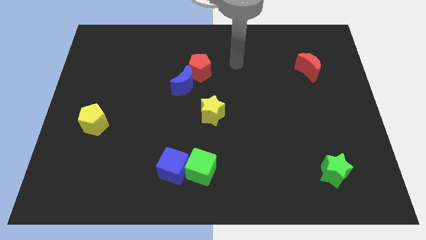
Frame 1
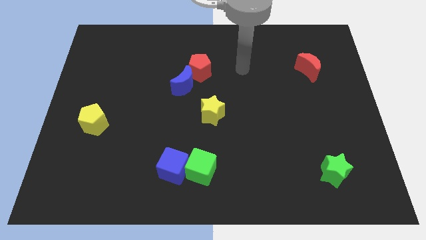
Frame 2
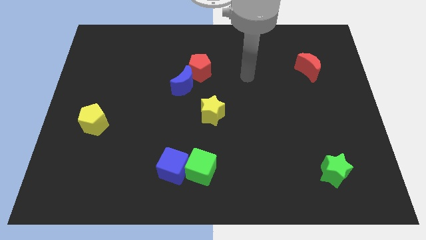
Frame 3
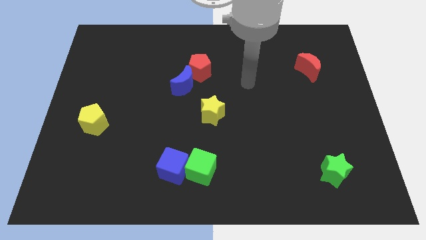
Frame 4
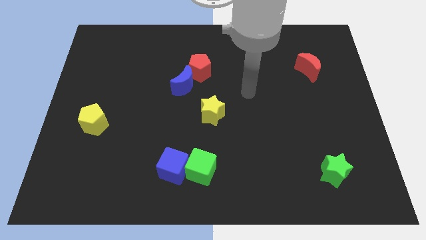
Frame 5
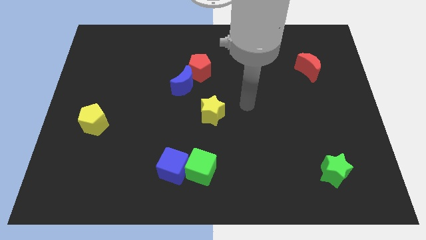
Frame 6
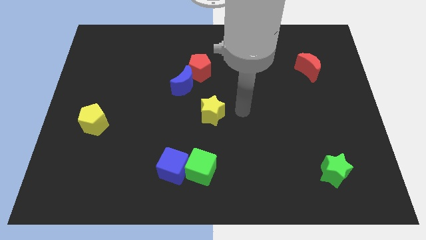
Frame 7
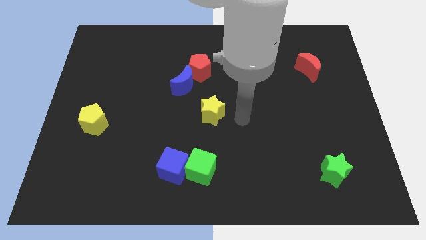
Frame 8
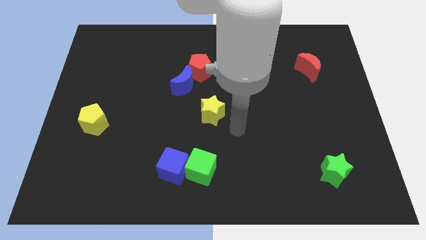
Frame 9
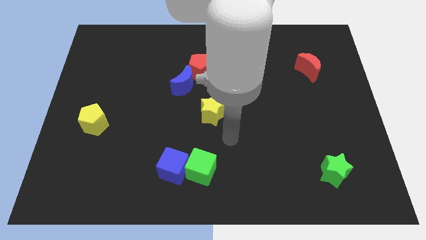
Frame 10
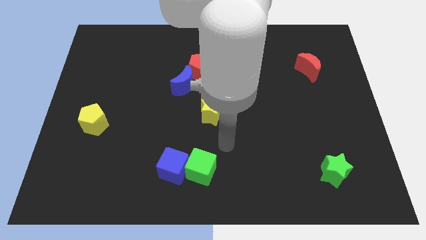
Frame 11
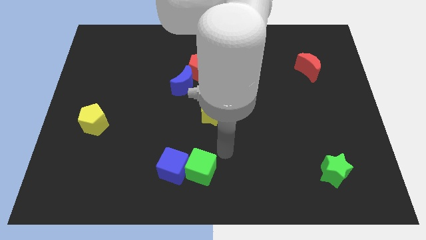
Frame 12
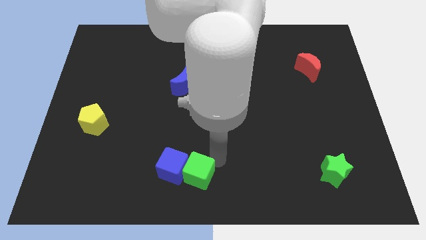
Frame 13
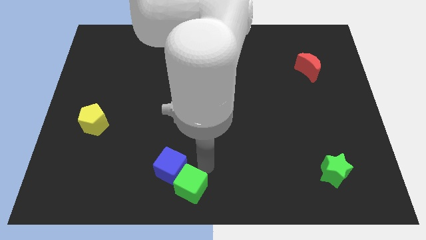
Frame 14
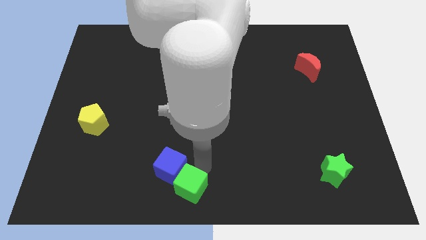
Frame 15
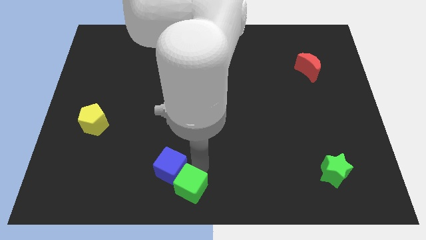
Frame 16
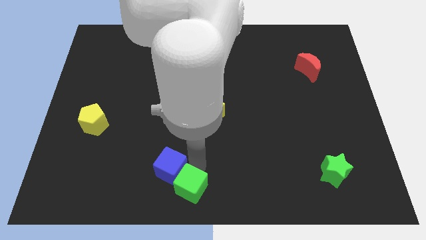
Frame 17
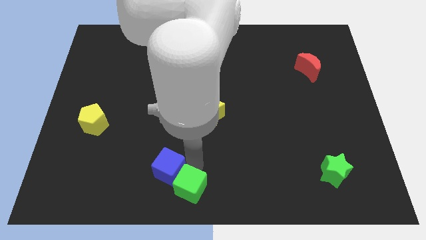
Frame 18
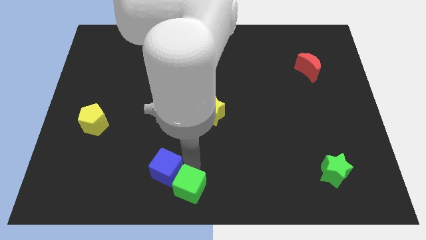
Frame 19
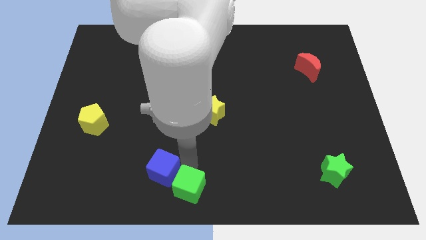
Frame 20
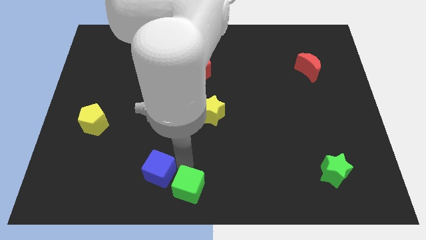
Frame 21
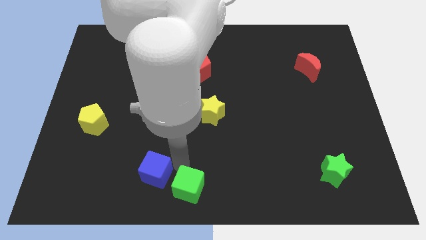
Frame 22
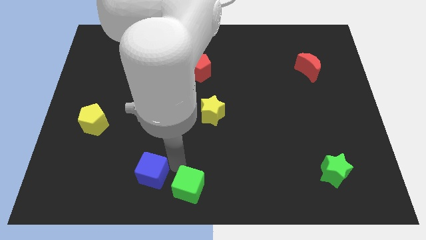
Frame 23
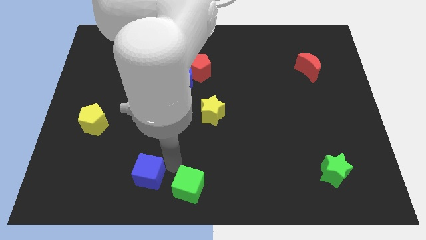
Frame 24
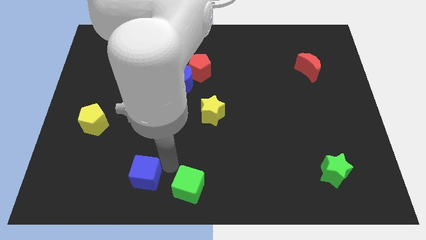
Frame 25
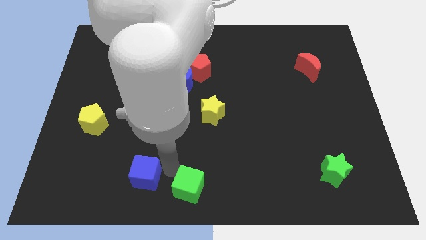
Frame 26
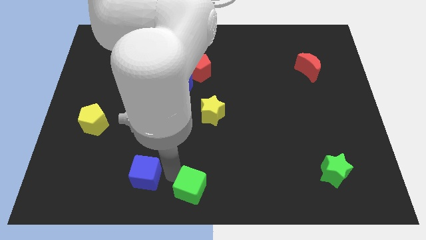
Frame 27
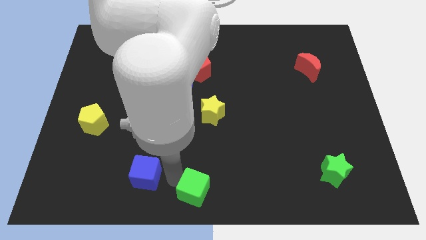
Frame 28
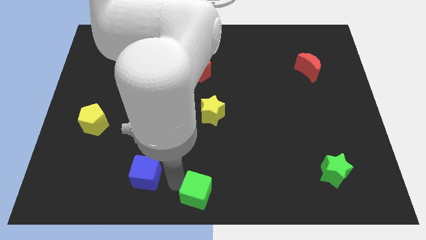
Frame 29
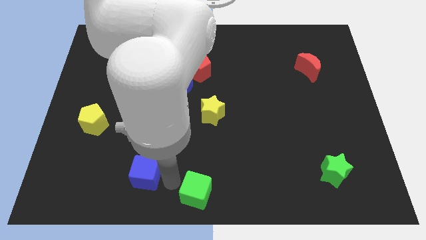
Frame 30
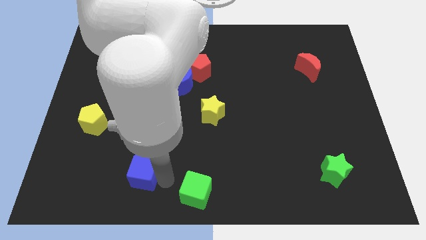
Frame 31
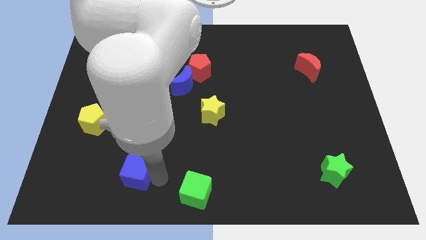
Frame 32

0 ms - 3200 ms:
push the blue cube to the left a little

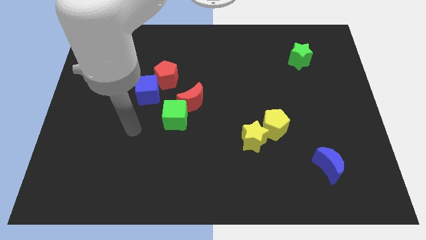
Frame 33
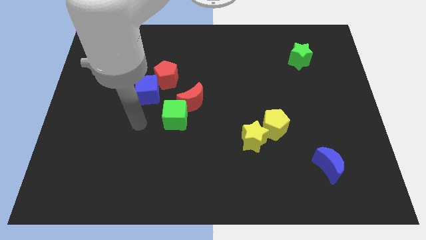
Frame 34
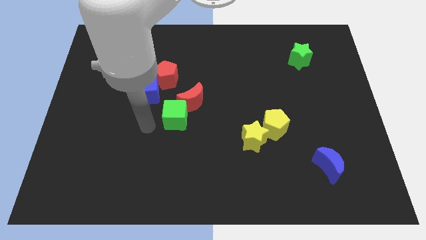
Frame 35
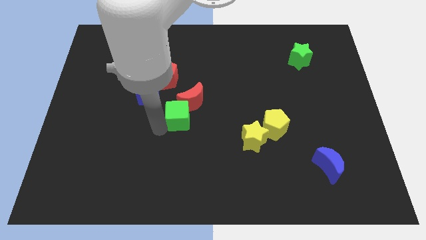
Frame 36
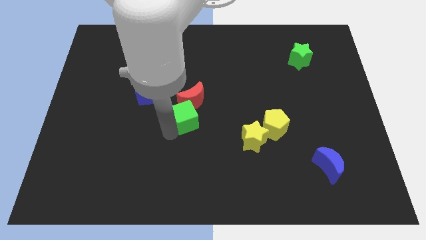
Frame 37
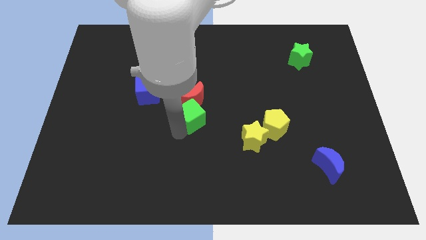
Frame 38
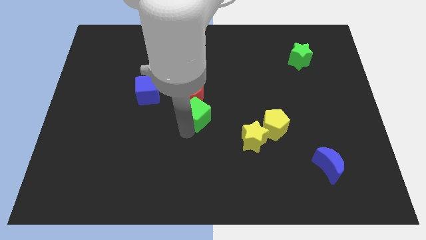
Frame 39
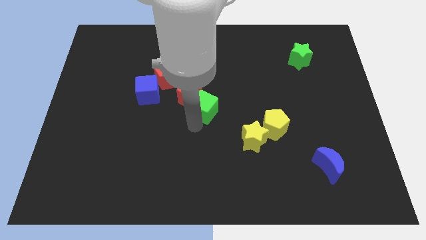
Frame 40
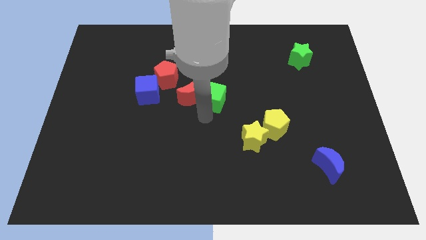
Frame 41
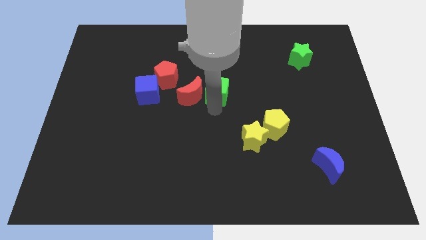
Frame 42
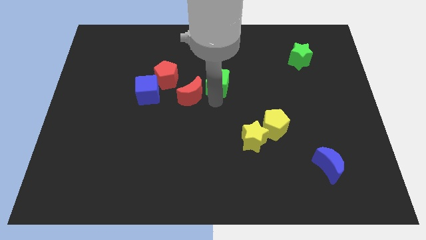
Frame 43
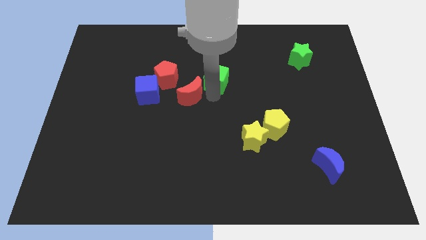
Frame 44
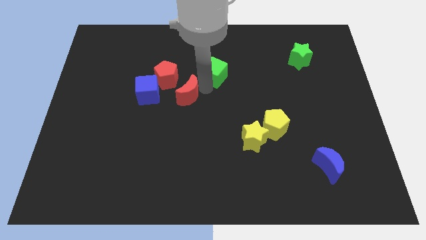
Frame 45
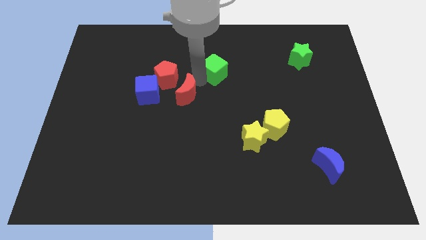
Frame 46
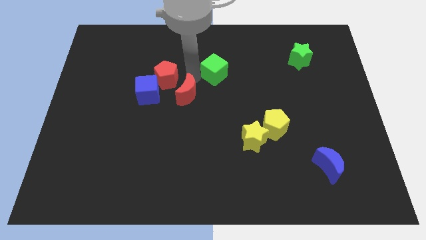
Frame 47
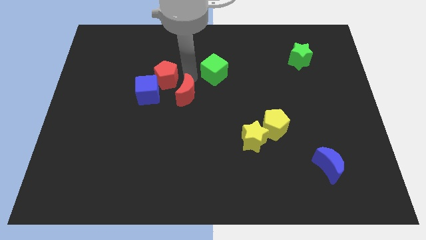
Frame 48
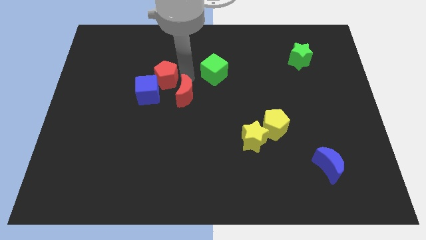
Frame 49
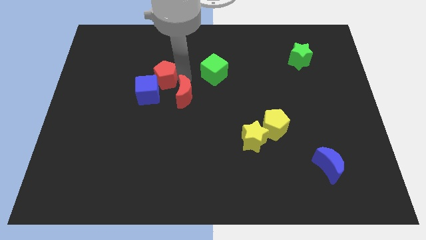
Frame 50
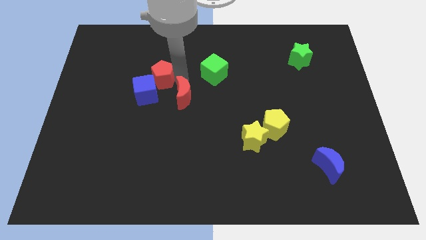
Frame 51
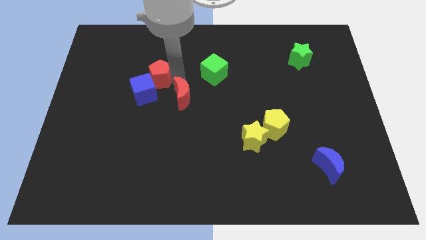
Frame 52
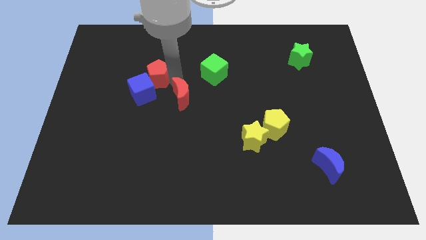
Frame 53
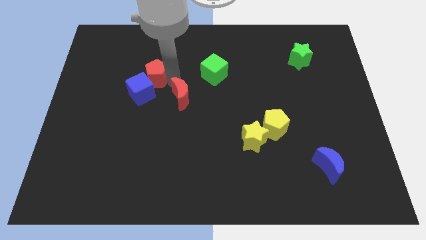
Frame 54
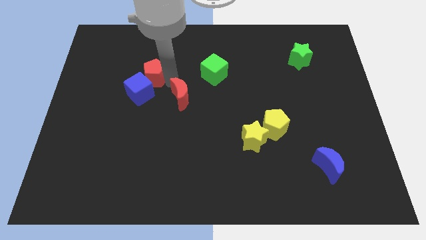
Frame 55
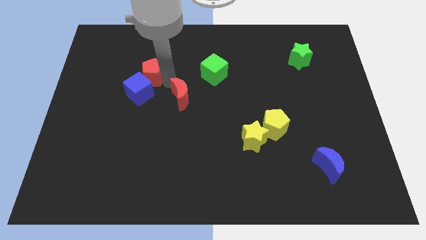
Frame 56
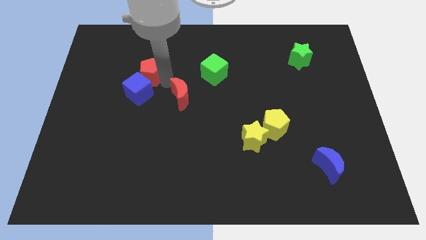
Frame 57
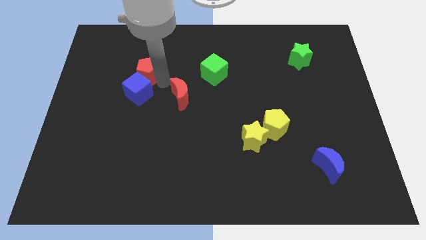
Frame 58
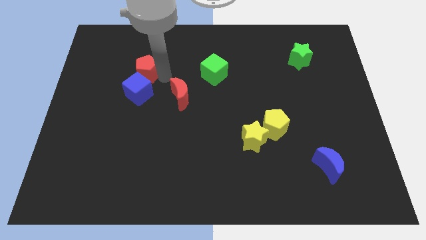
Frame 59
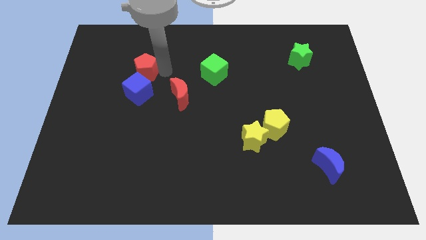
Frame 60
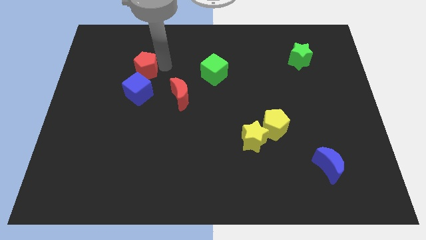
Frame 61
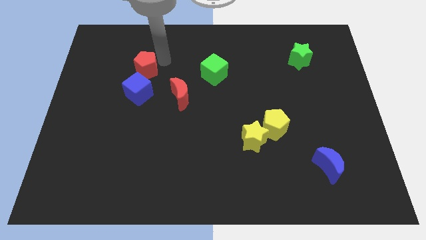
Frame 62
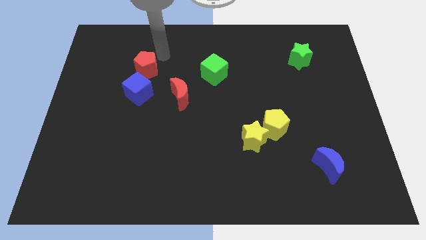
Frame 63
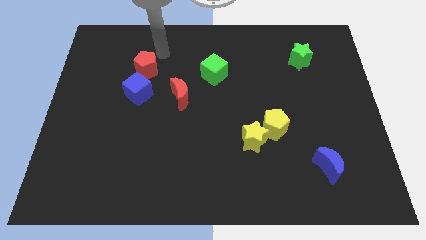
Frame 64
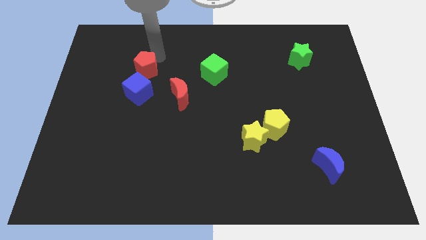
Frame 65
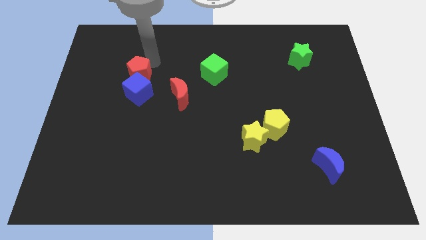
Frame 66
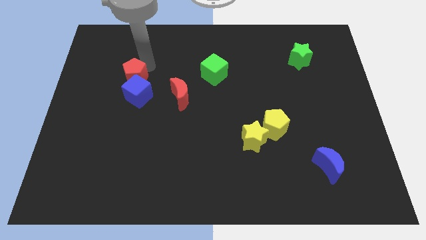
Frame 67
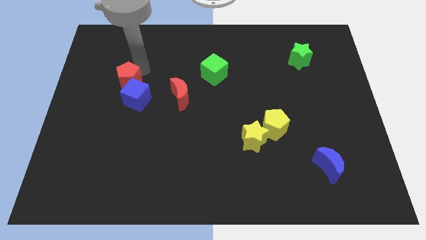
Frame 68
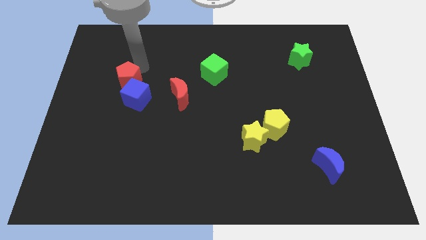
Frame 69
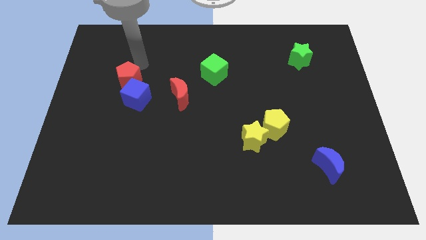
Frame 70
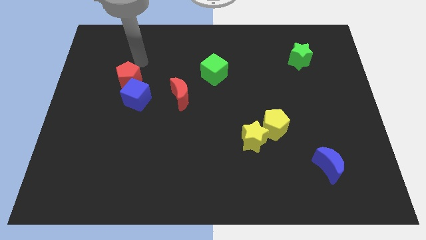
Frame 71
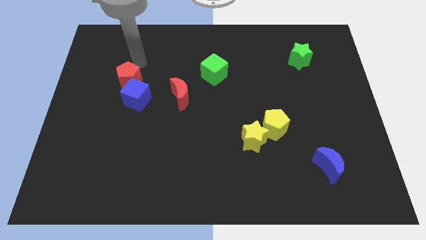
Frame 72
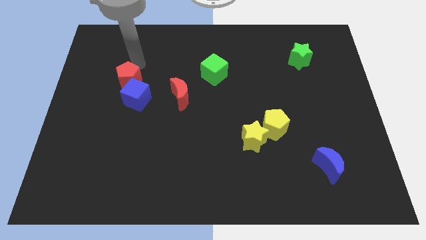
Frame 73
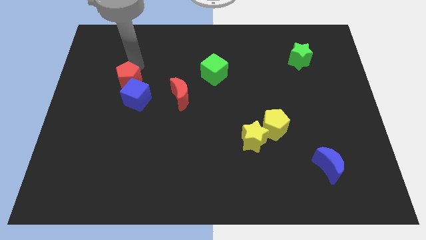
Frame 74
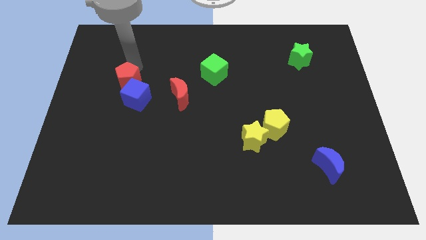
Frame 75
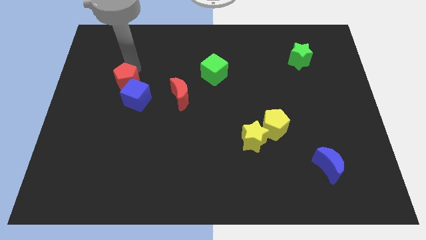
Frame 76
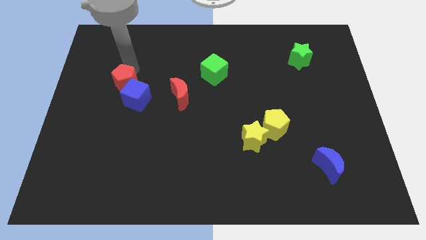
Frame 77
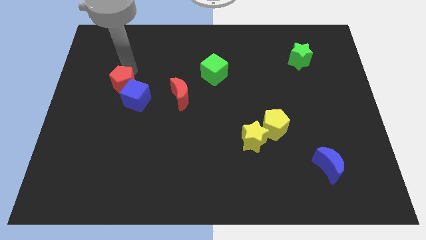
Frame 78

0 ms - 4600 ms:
slide the red pentagon down and then to the left a little
